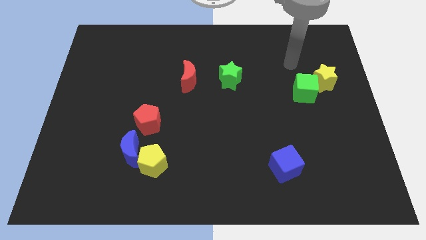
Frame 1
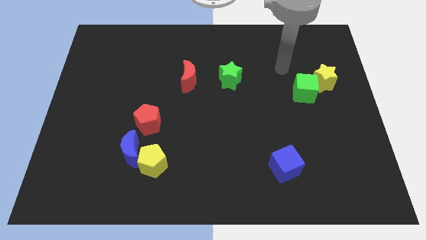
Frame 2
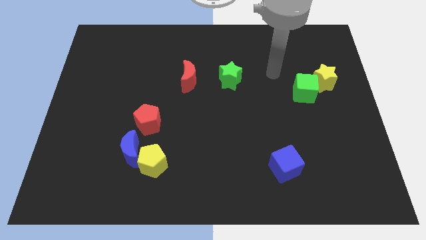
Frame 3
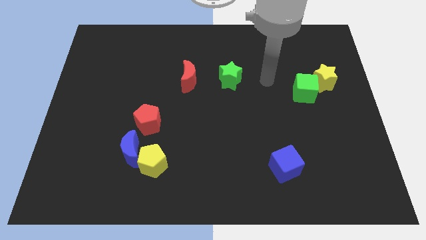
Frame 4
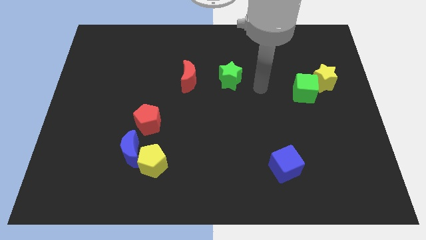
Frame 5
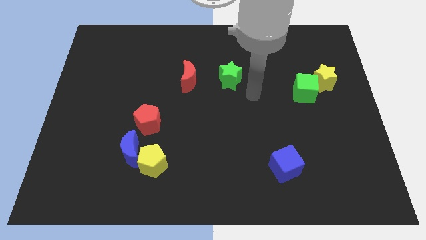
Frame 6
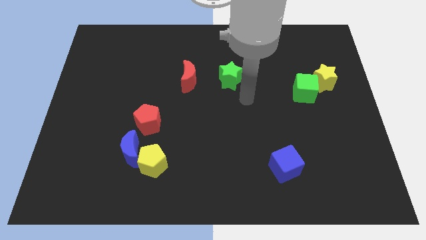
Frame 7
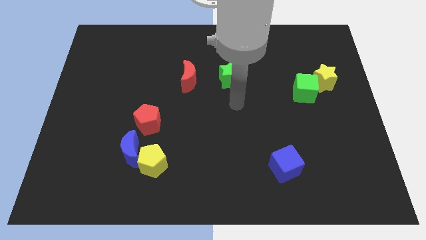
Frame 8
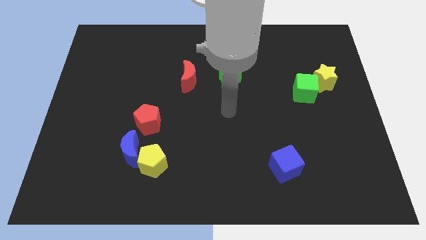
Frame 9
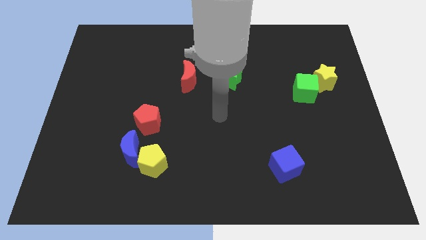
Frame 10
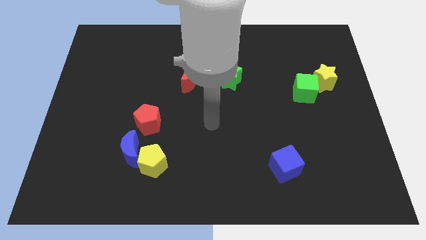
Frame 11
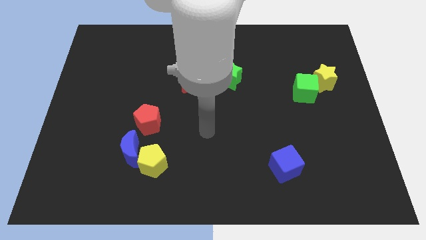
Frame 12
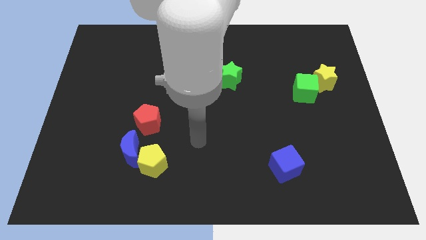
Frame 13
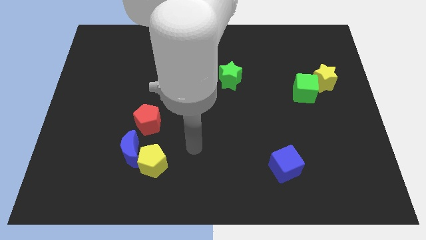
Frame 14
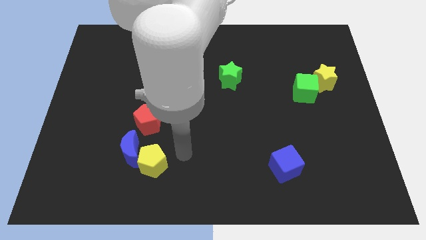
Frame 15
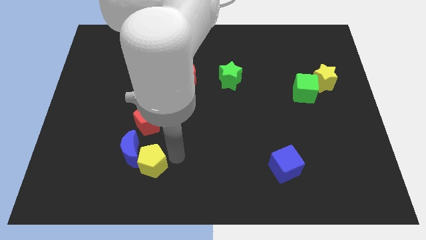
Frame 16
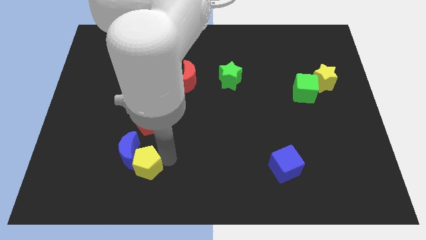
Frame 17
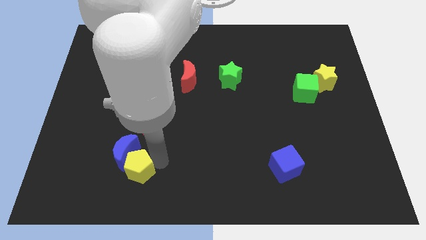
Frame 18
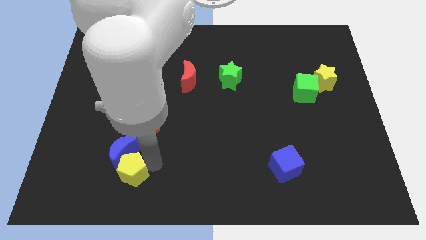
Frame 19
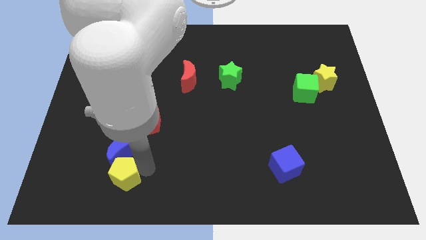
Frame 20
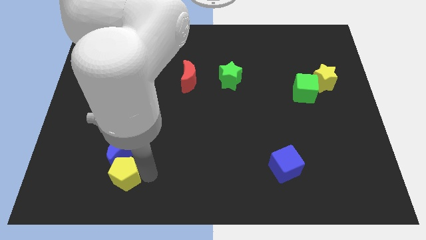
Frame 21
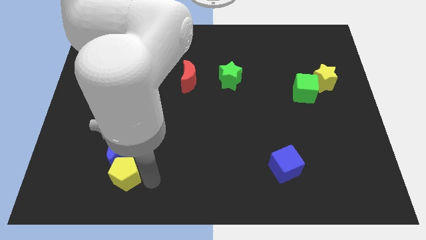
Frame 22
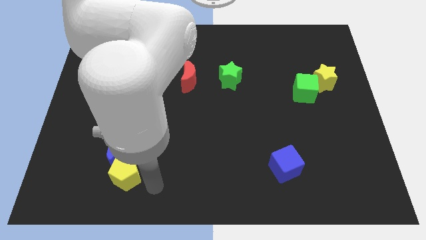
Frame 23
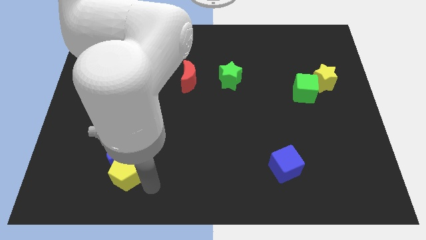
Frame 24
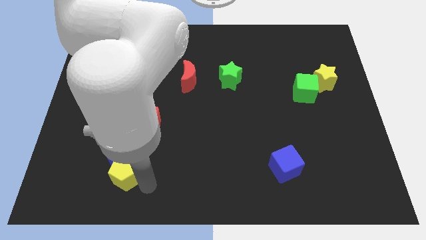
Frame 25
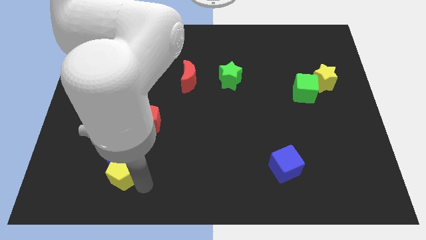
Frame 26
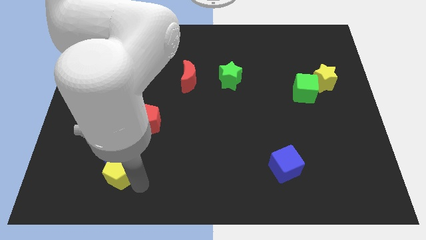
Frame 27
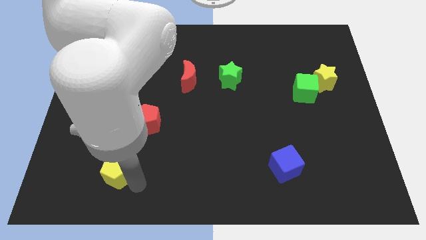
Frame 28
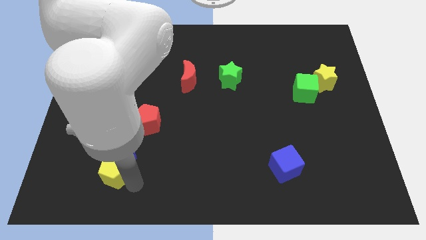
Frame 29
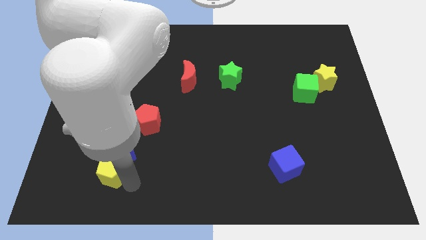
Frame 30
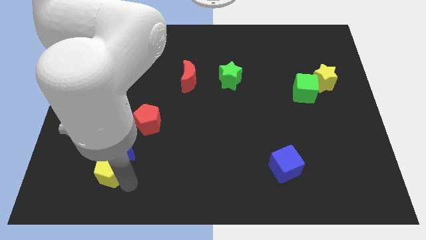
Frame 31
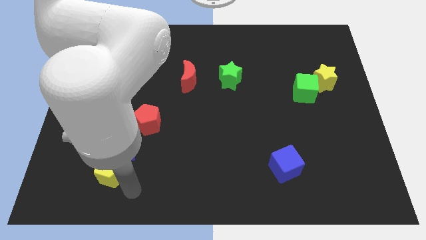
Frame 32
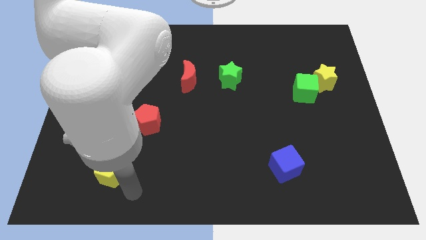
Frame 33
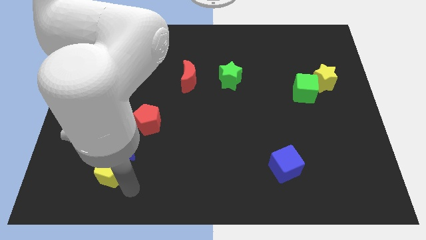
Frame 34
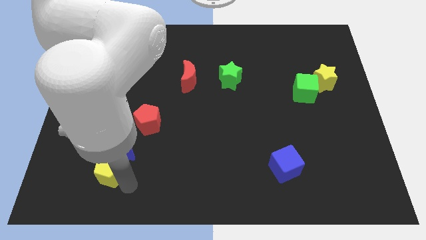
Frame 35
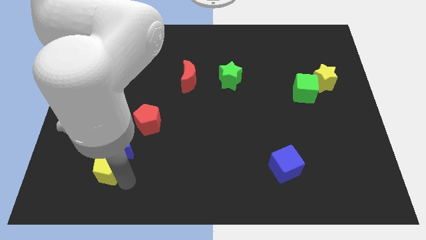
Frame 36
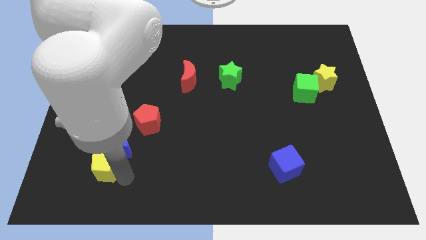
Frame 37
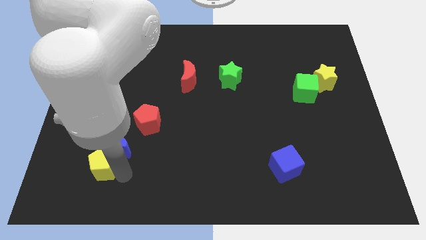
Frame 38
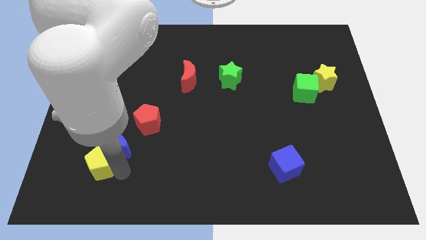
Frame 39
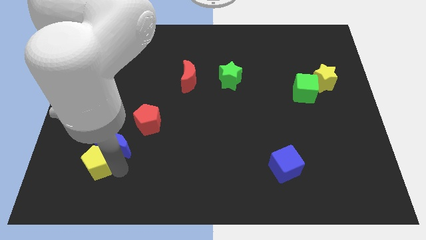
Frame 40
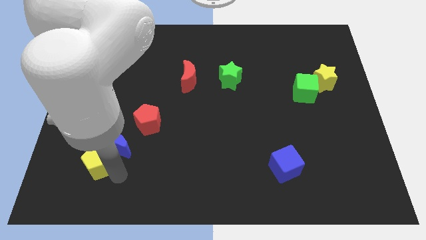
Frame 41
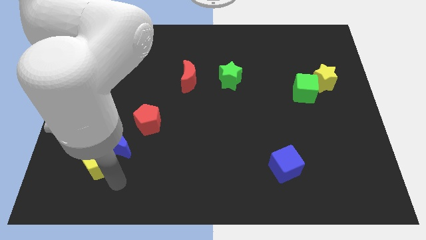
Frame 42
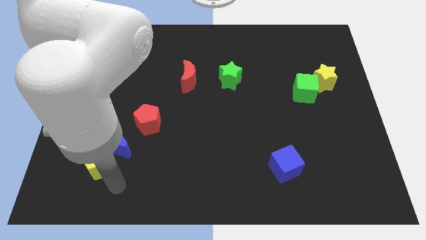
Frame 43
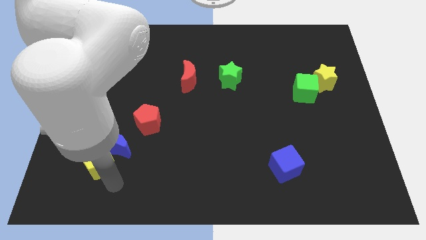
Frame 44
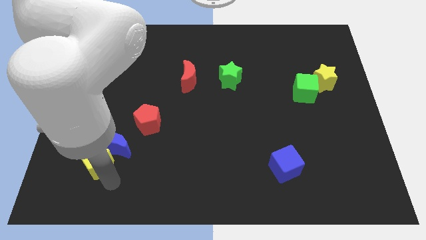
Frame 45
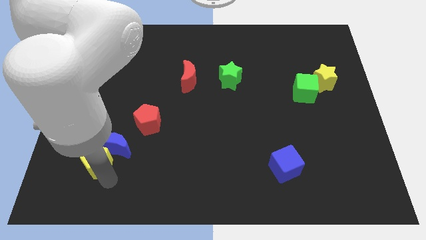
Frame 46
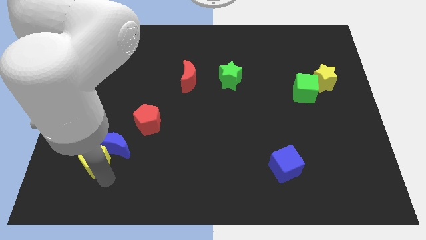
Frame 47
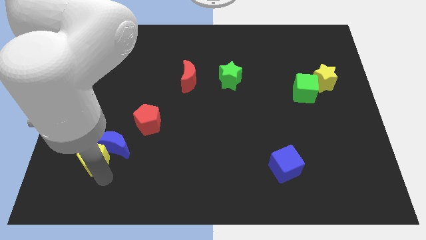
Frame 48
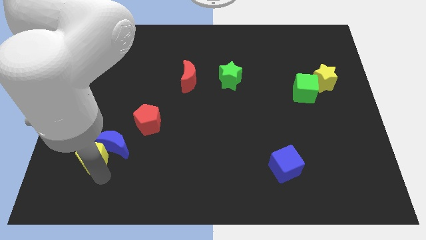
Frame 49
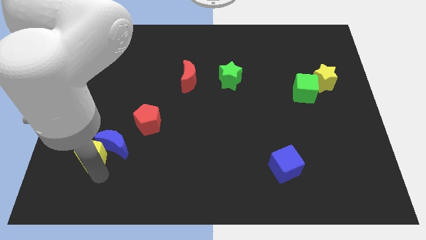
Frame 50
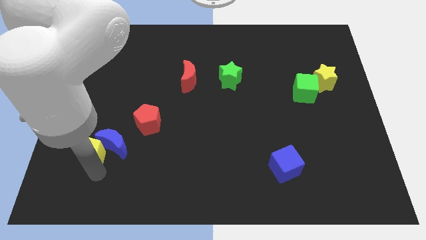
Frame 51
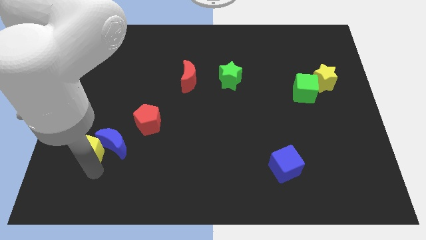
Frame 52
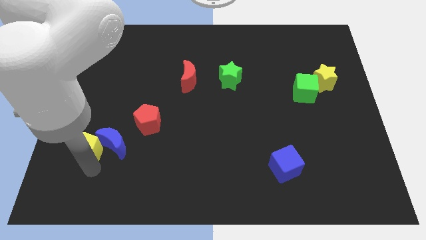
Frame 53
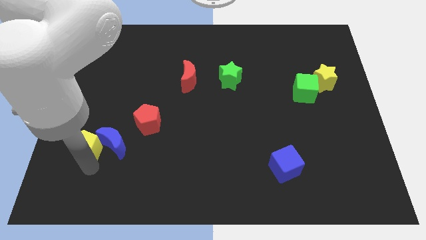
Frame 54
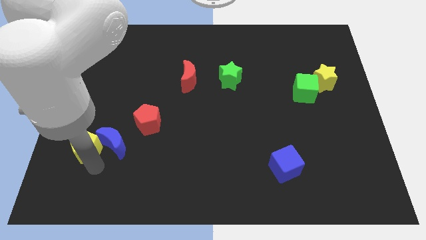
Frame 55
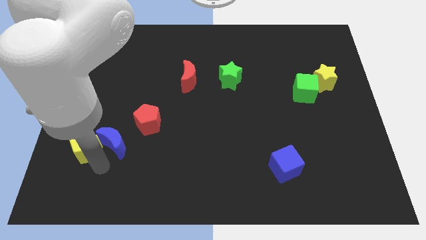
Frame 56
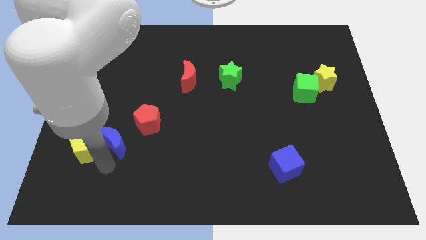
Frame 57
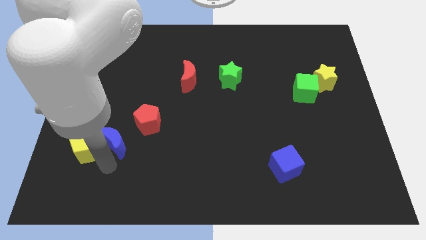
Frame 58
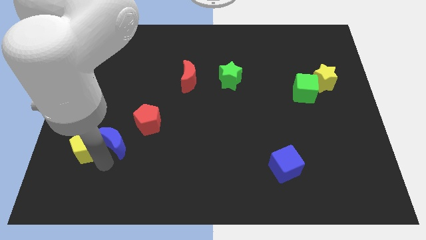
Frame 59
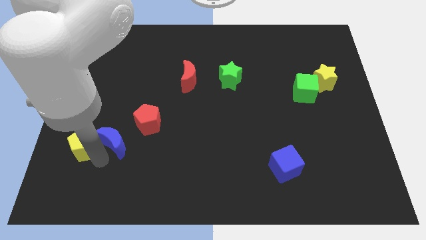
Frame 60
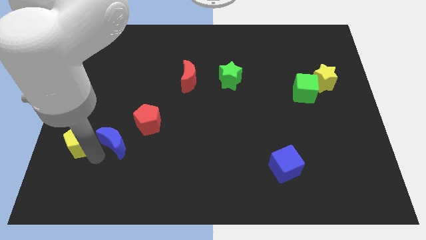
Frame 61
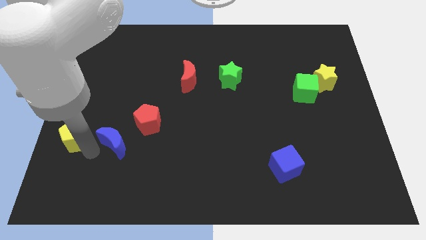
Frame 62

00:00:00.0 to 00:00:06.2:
move the yellow pentagon to the left side

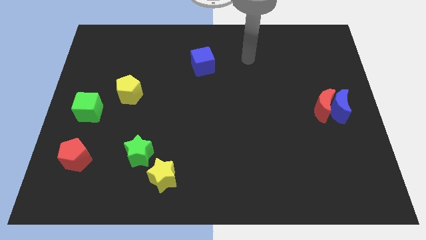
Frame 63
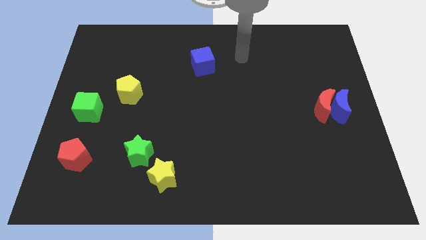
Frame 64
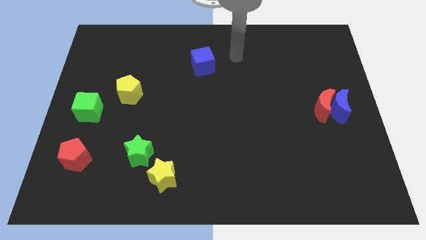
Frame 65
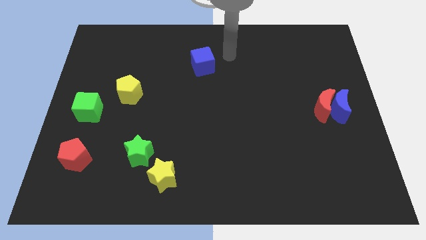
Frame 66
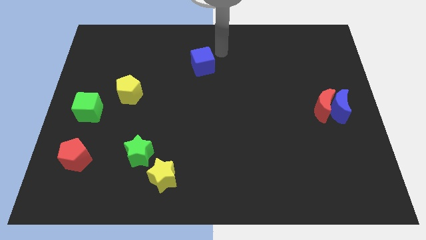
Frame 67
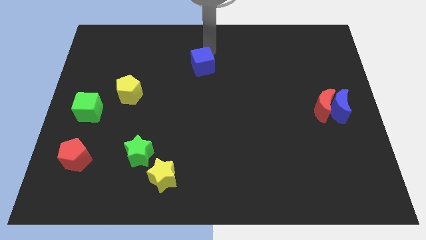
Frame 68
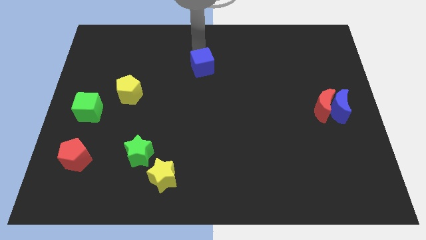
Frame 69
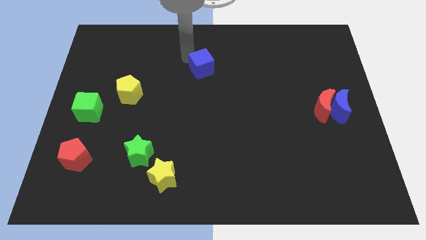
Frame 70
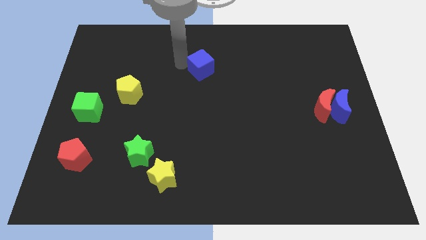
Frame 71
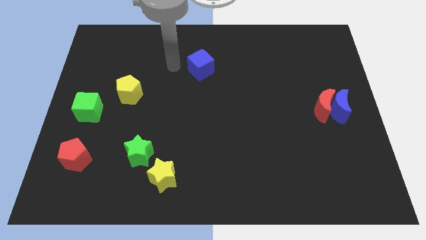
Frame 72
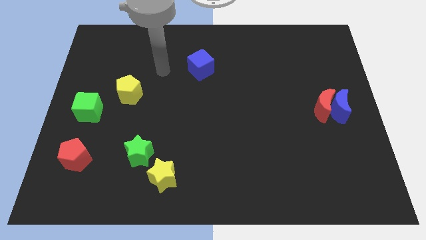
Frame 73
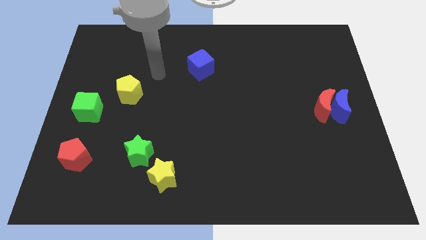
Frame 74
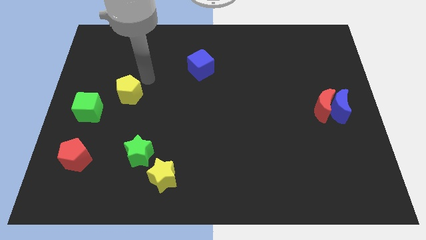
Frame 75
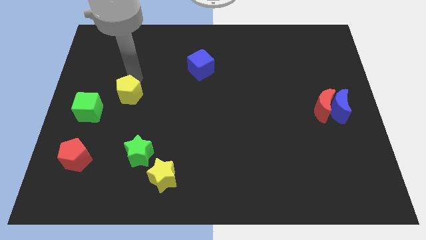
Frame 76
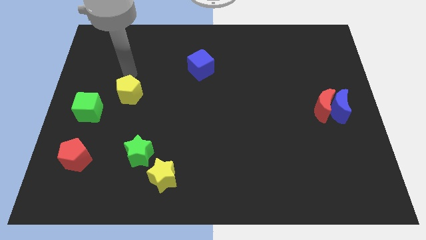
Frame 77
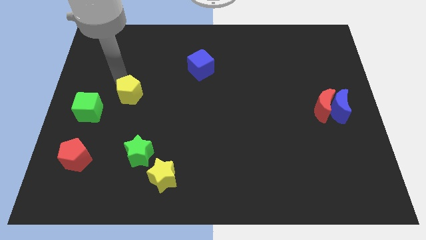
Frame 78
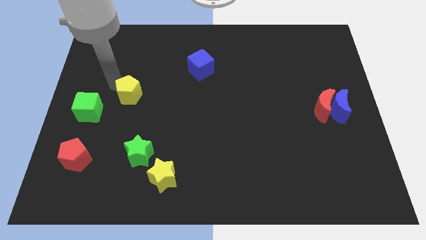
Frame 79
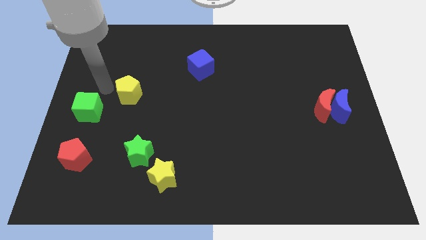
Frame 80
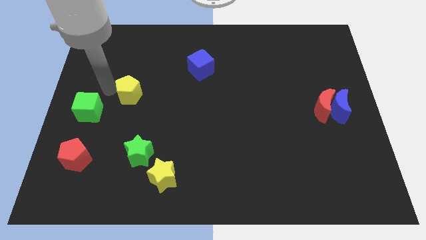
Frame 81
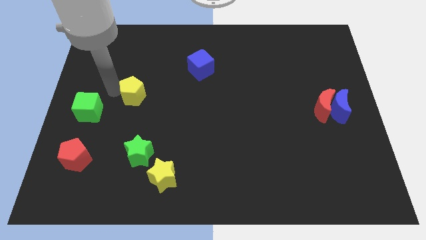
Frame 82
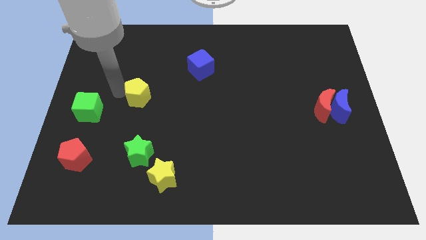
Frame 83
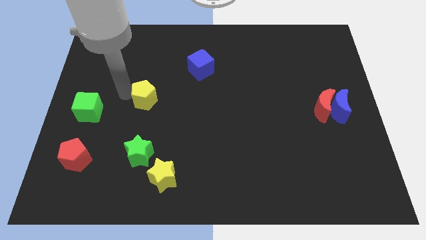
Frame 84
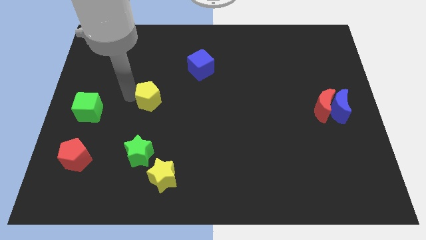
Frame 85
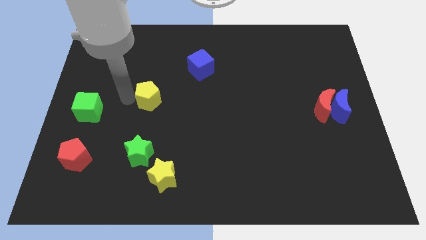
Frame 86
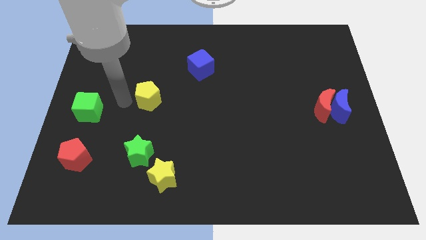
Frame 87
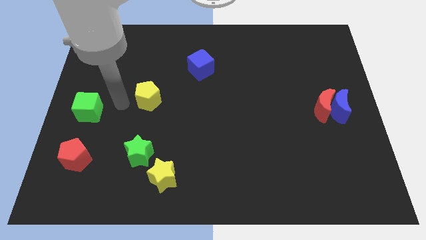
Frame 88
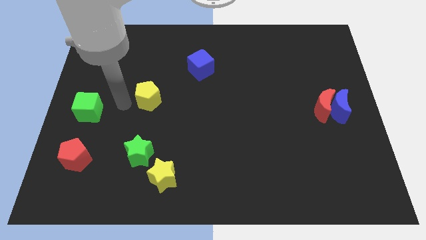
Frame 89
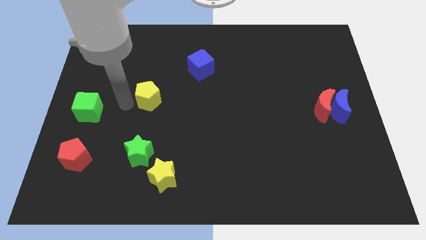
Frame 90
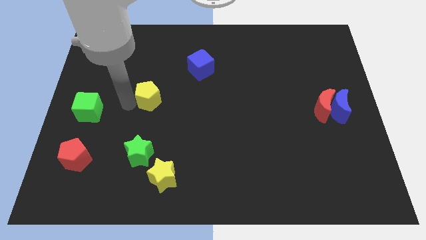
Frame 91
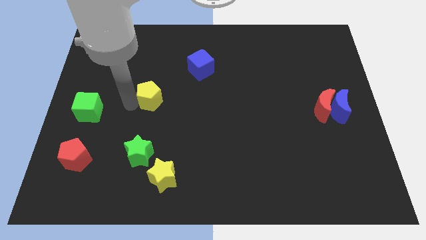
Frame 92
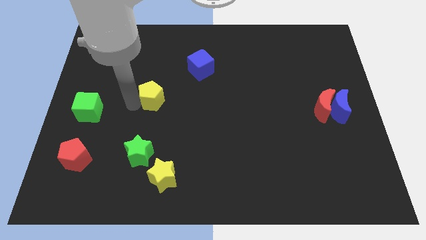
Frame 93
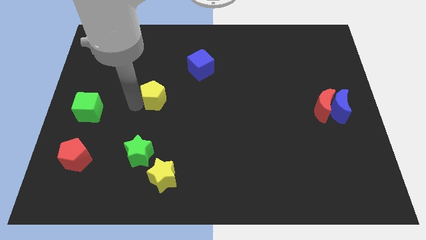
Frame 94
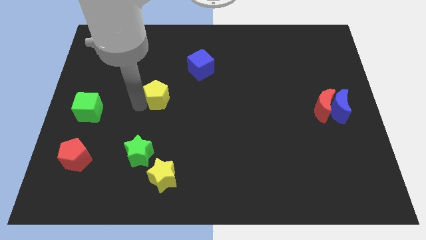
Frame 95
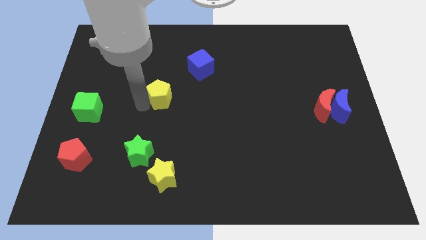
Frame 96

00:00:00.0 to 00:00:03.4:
put the yellow pentagon to the center of the board
